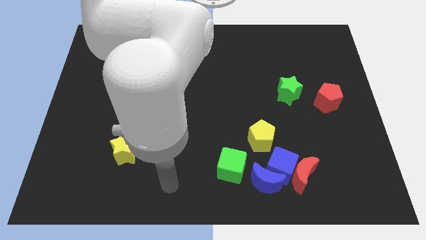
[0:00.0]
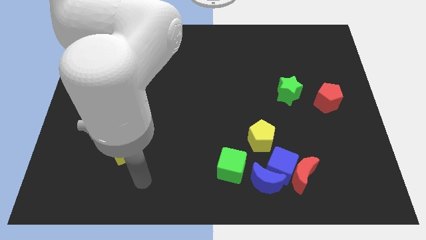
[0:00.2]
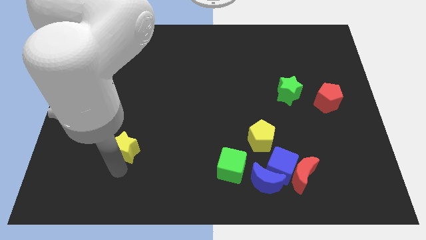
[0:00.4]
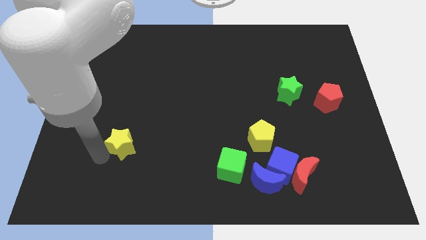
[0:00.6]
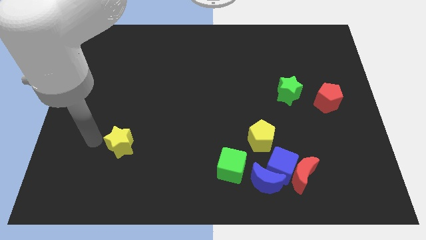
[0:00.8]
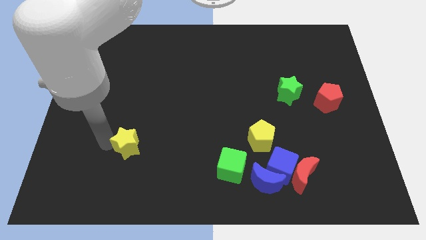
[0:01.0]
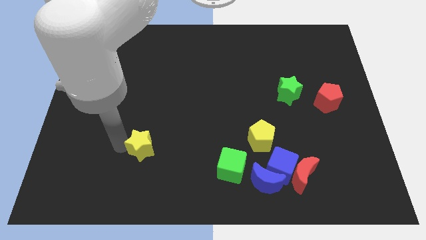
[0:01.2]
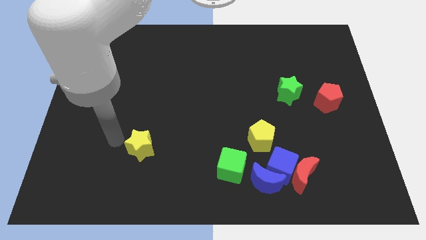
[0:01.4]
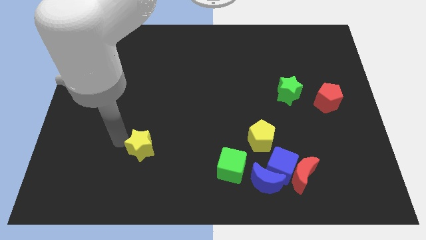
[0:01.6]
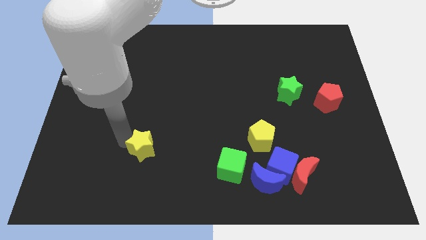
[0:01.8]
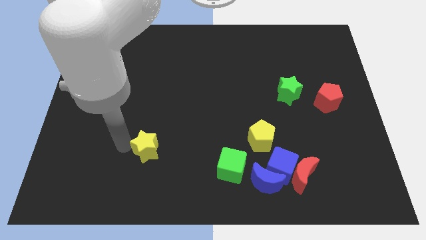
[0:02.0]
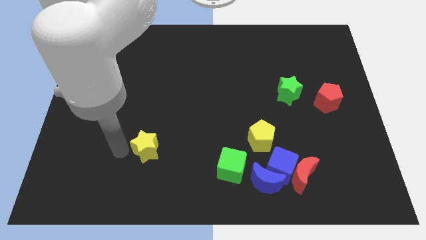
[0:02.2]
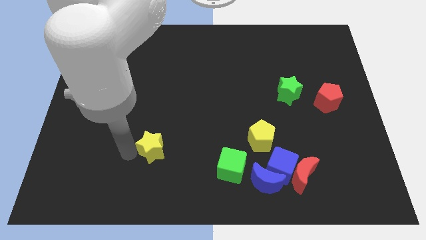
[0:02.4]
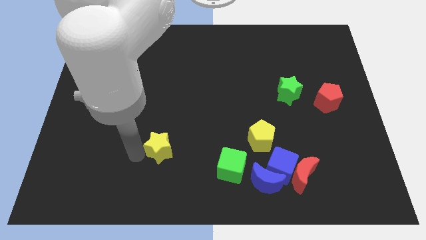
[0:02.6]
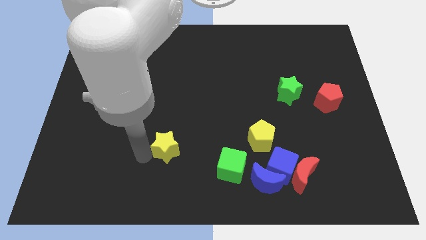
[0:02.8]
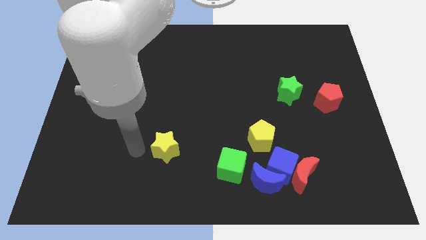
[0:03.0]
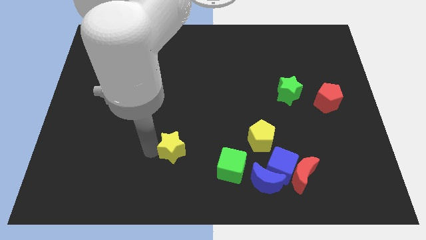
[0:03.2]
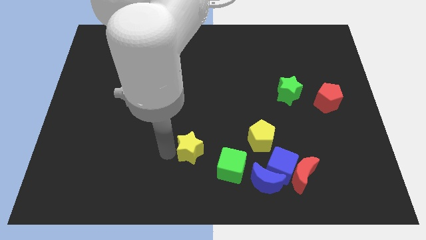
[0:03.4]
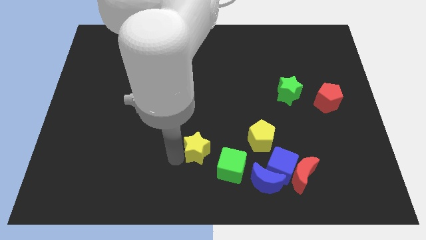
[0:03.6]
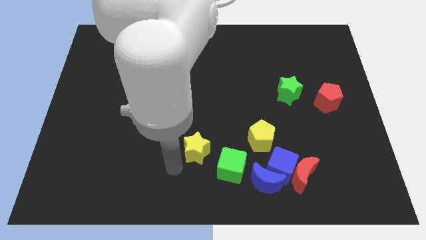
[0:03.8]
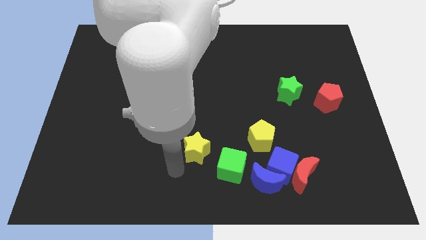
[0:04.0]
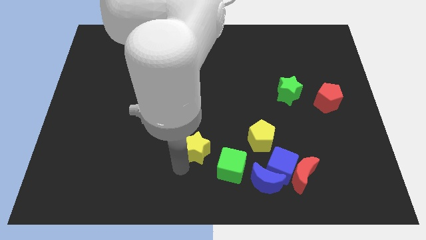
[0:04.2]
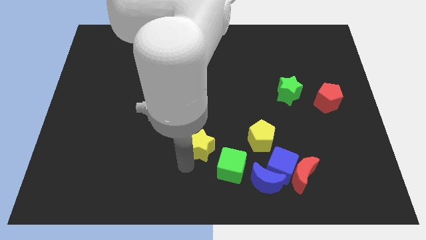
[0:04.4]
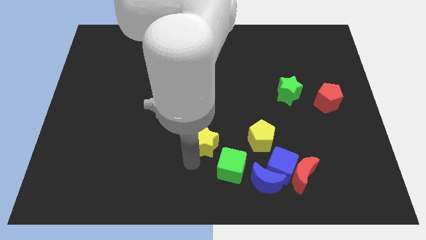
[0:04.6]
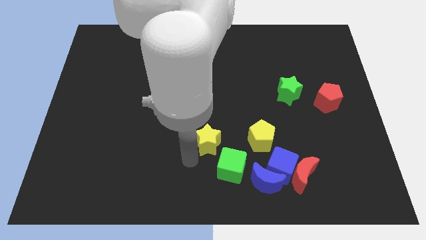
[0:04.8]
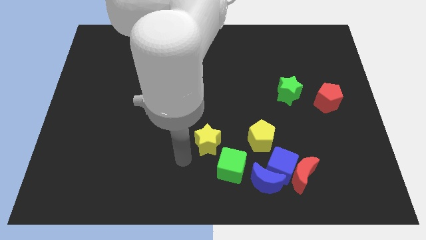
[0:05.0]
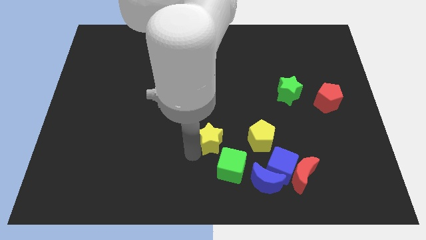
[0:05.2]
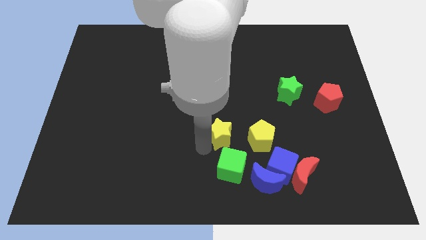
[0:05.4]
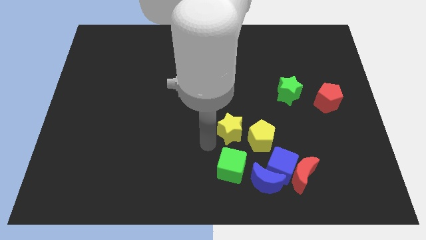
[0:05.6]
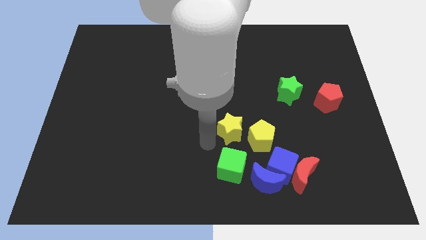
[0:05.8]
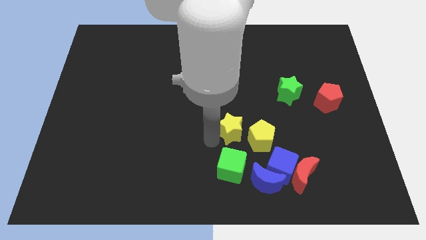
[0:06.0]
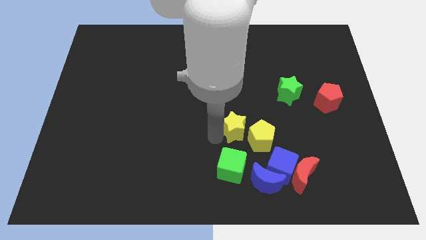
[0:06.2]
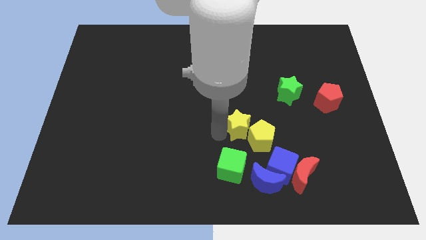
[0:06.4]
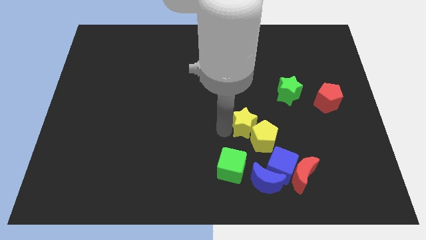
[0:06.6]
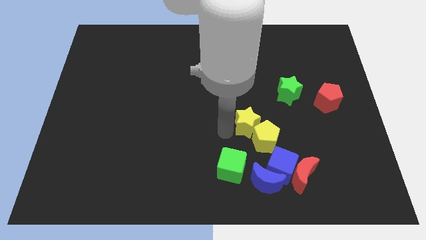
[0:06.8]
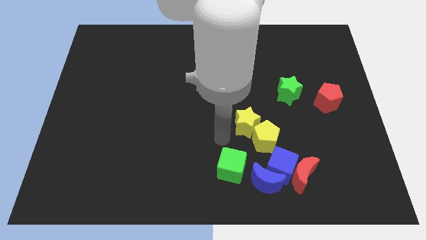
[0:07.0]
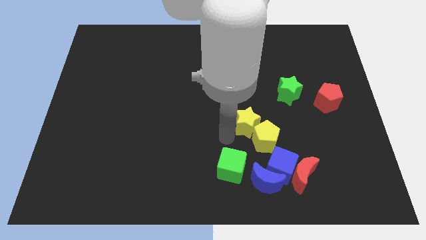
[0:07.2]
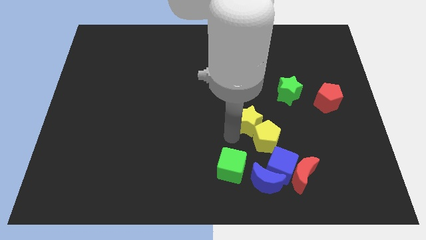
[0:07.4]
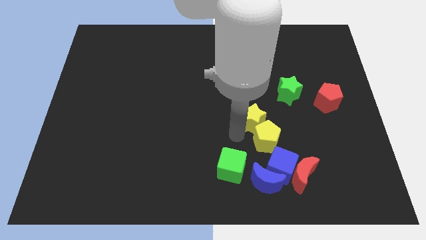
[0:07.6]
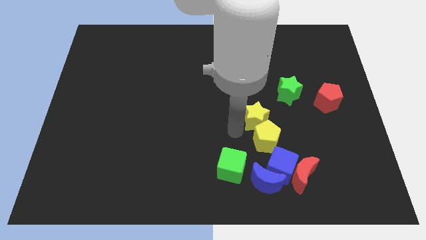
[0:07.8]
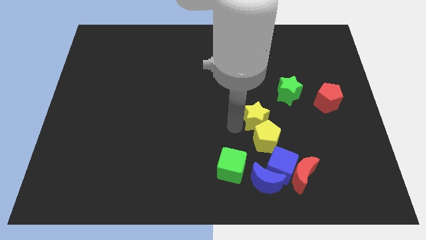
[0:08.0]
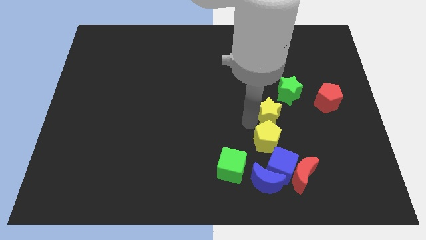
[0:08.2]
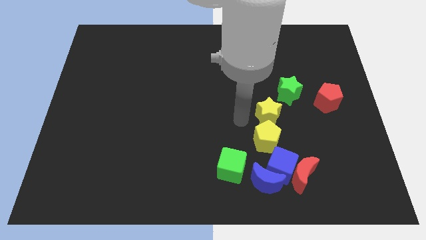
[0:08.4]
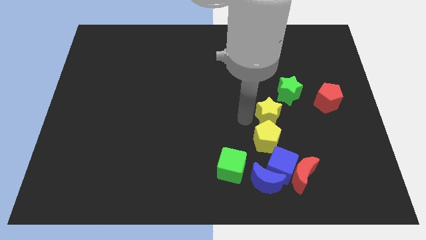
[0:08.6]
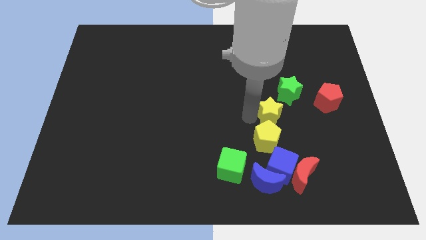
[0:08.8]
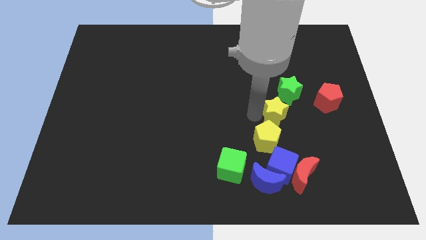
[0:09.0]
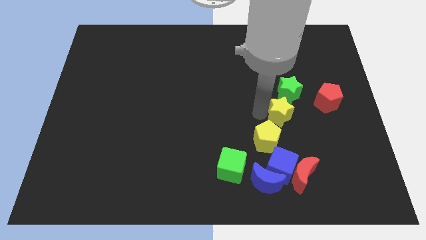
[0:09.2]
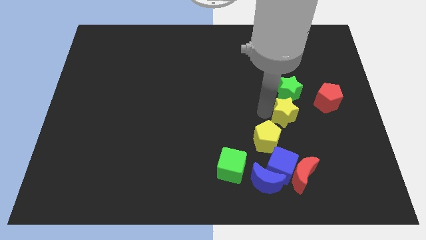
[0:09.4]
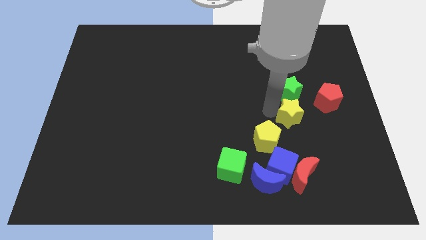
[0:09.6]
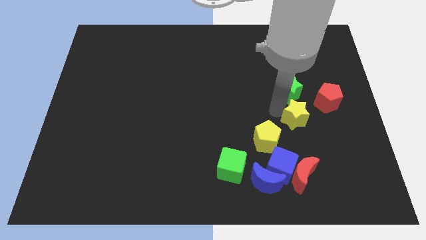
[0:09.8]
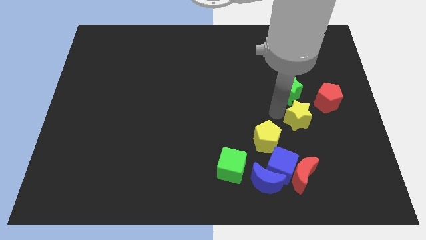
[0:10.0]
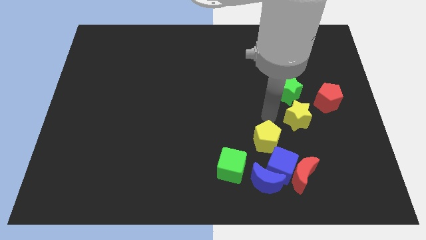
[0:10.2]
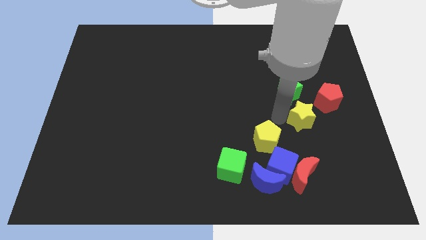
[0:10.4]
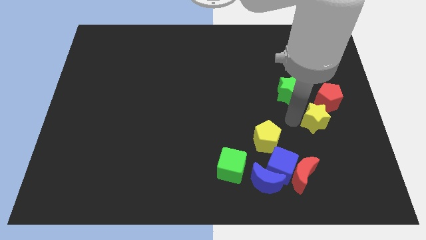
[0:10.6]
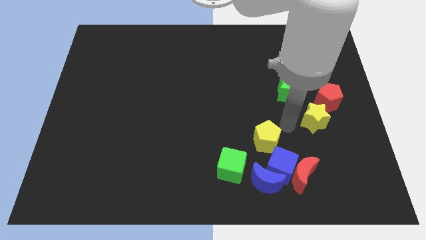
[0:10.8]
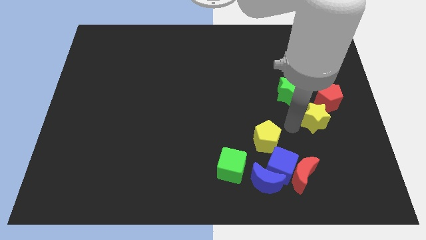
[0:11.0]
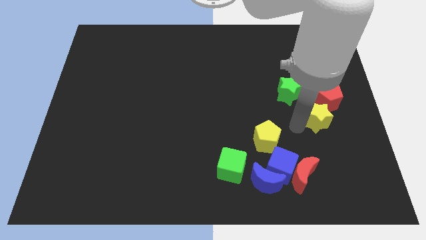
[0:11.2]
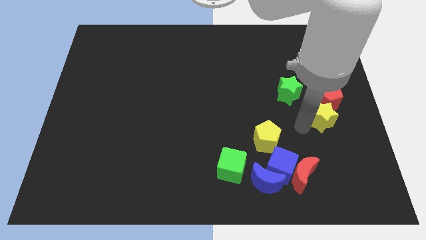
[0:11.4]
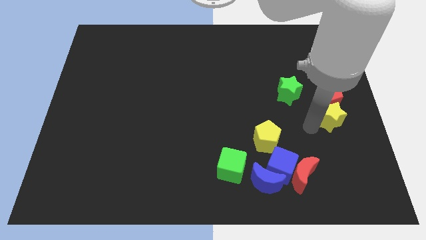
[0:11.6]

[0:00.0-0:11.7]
push the yellow star to the right side
